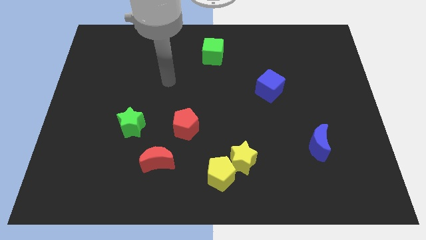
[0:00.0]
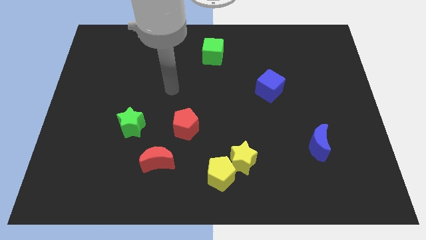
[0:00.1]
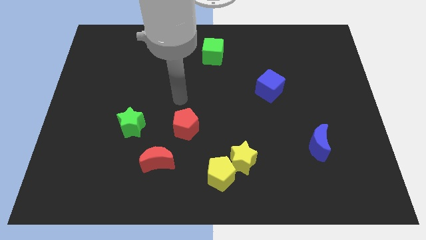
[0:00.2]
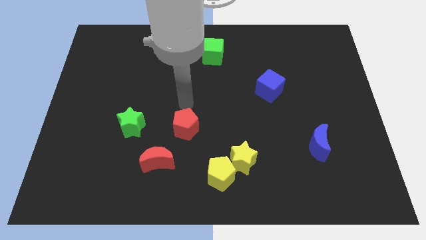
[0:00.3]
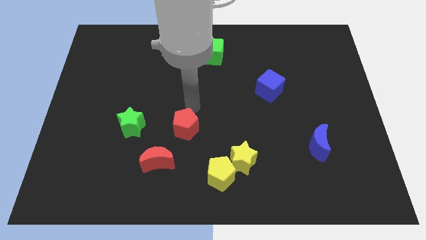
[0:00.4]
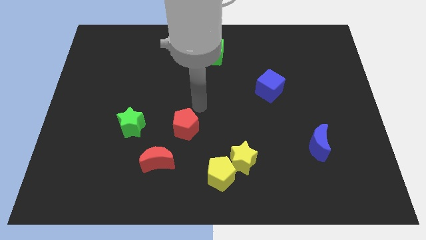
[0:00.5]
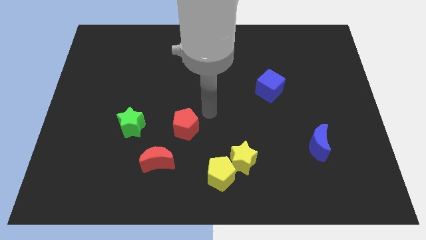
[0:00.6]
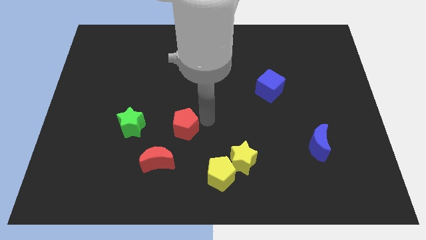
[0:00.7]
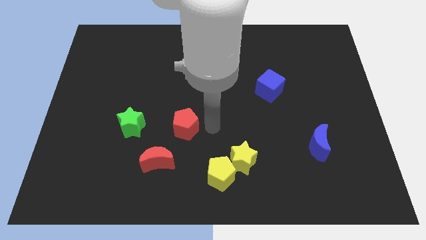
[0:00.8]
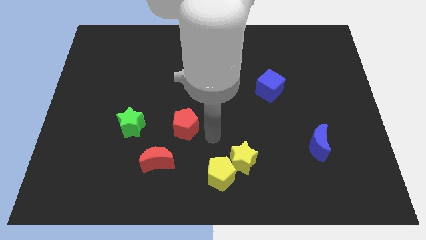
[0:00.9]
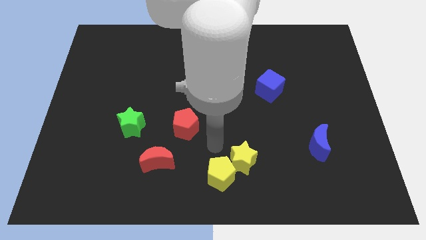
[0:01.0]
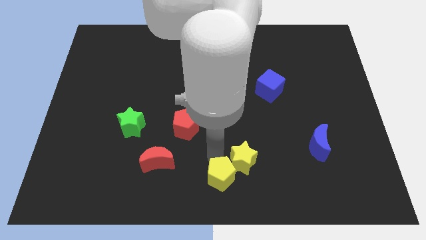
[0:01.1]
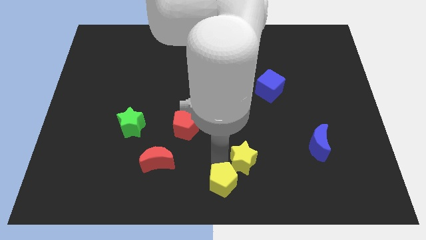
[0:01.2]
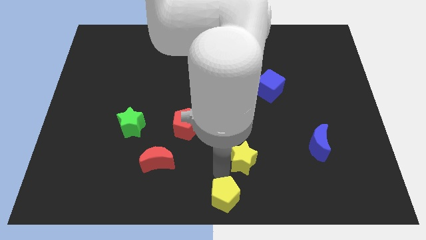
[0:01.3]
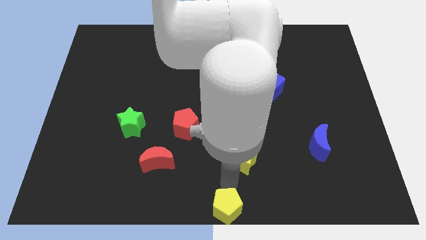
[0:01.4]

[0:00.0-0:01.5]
separate the yellow star from the yellow pentagon

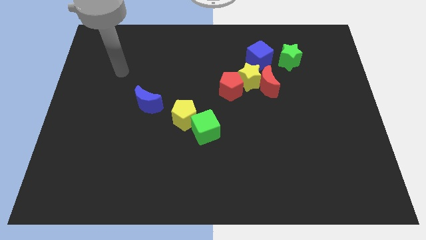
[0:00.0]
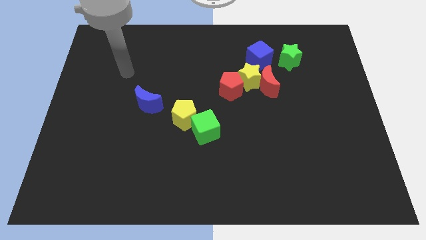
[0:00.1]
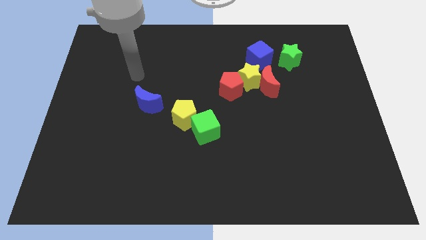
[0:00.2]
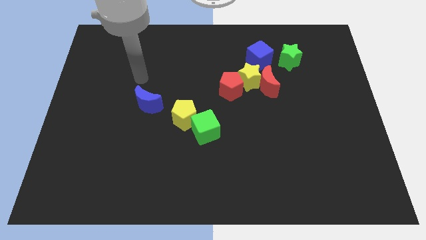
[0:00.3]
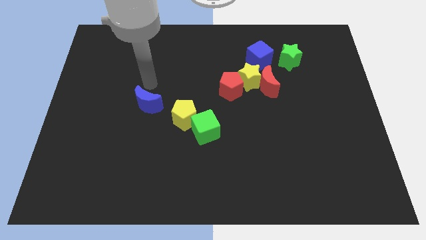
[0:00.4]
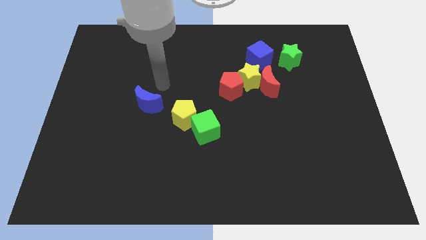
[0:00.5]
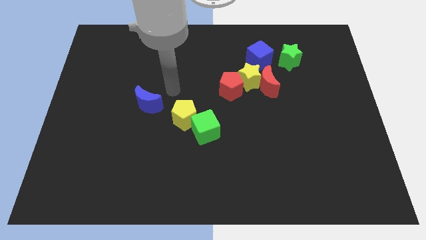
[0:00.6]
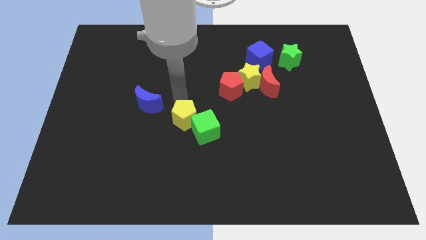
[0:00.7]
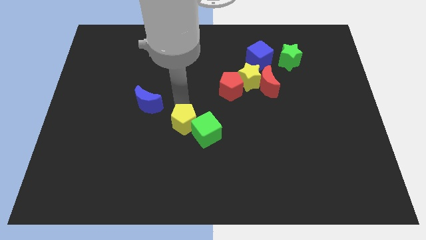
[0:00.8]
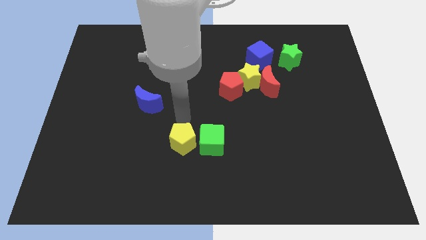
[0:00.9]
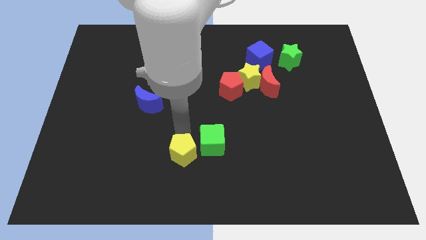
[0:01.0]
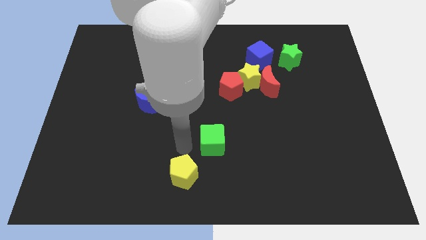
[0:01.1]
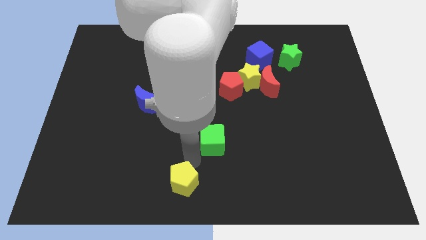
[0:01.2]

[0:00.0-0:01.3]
move the green cube away from the yellow pentagon

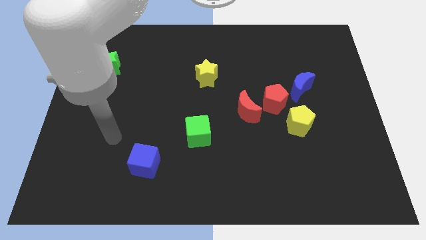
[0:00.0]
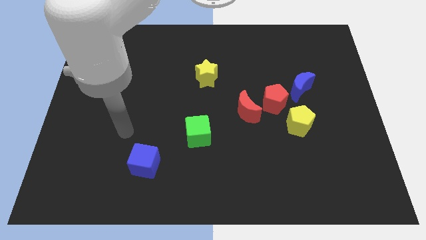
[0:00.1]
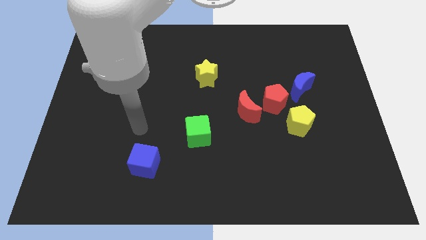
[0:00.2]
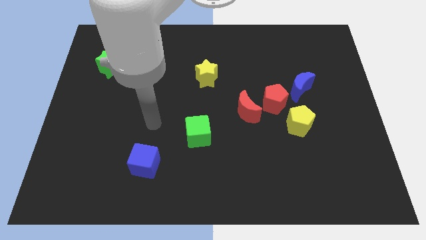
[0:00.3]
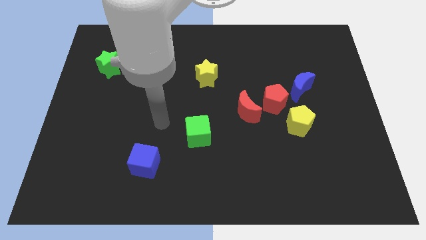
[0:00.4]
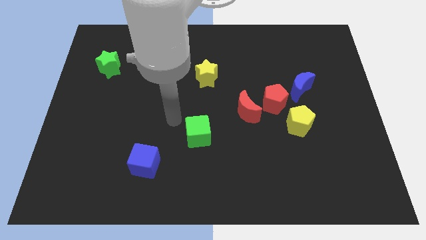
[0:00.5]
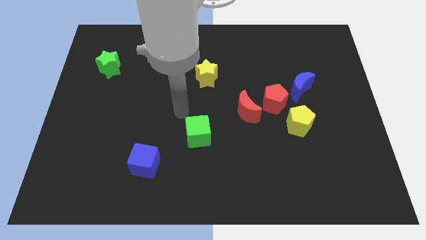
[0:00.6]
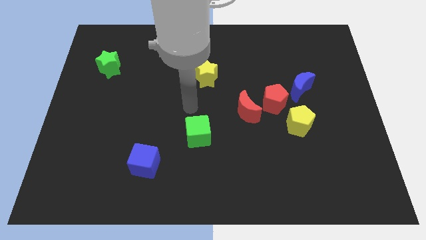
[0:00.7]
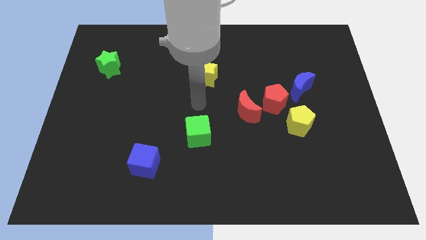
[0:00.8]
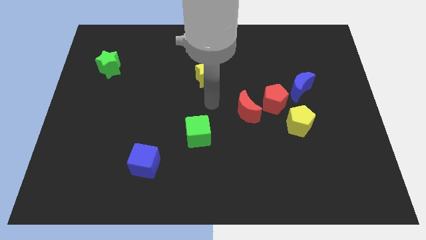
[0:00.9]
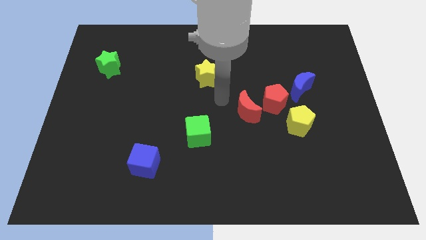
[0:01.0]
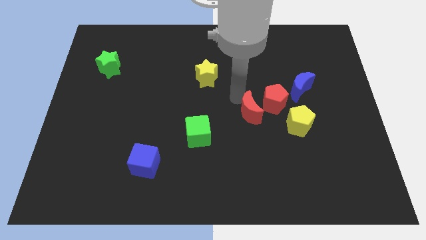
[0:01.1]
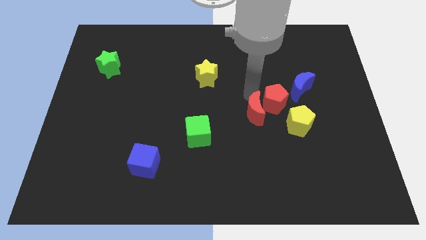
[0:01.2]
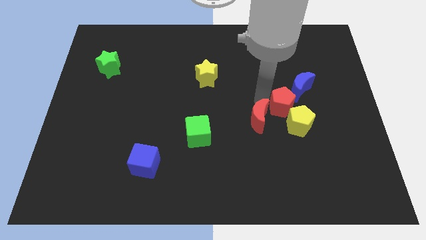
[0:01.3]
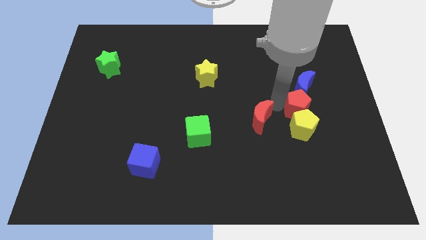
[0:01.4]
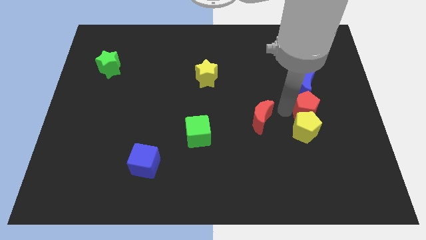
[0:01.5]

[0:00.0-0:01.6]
pull the red moon apart from the red pentagon

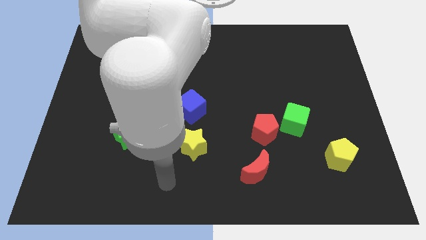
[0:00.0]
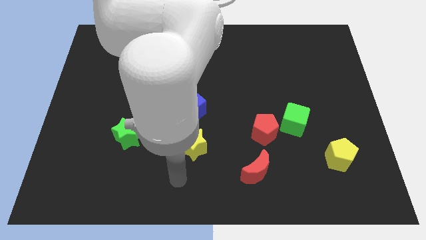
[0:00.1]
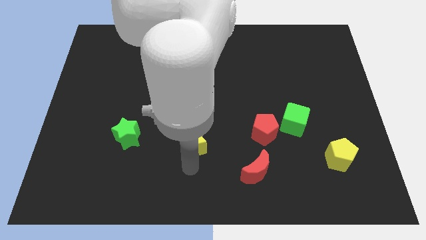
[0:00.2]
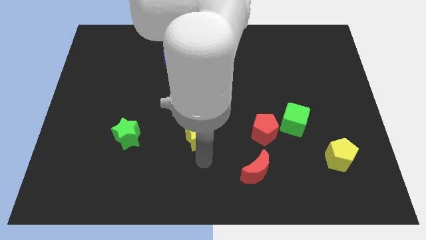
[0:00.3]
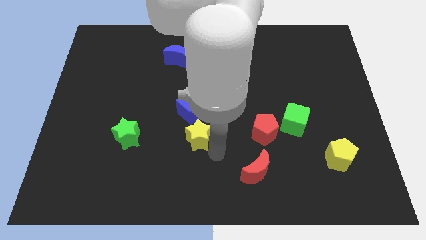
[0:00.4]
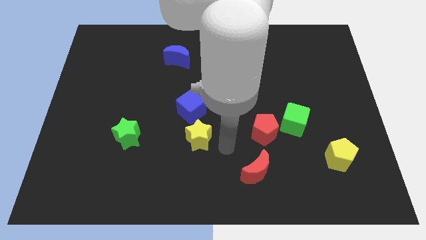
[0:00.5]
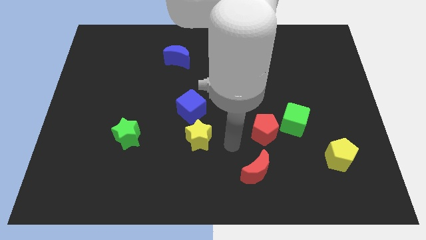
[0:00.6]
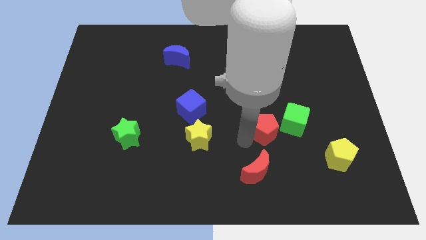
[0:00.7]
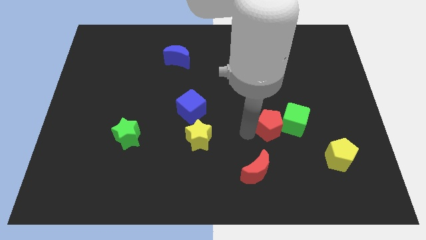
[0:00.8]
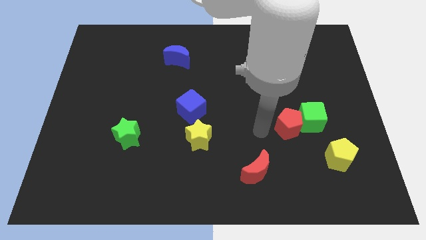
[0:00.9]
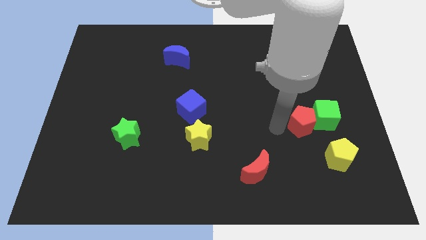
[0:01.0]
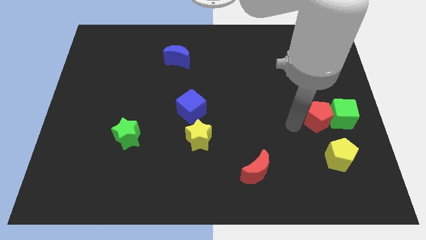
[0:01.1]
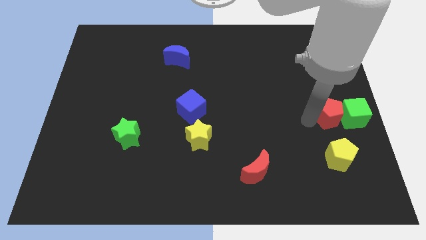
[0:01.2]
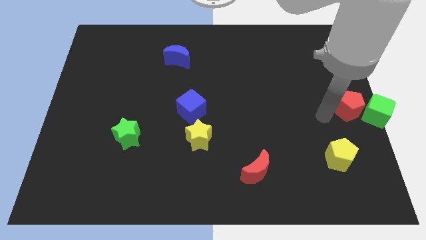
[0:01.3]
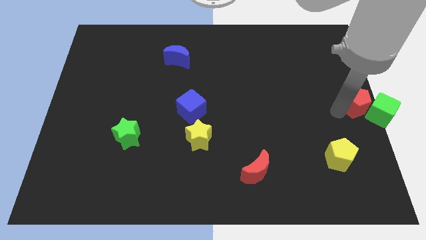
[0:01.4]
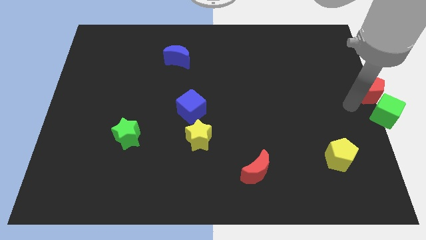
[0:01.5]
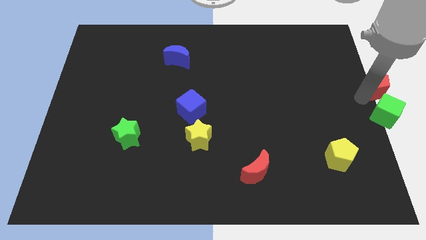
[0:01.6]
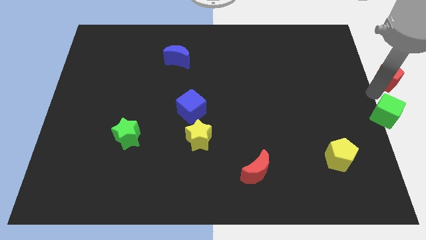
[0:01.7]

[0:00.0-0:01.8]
separate the green cube from the red pentagon

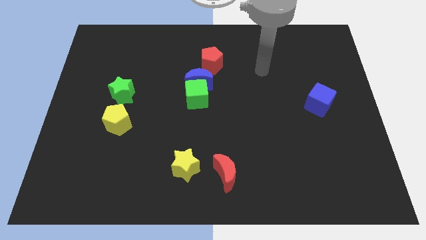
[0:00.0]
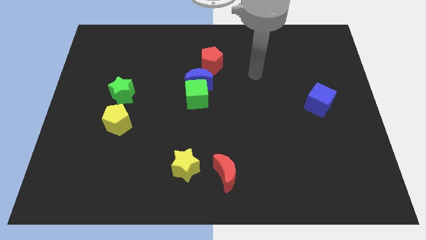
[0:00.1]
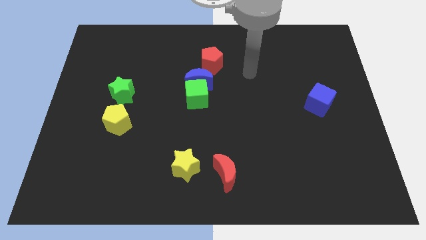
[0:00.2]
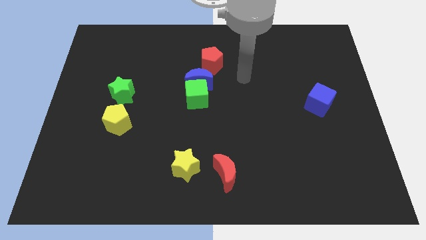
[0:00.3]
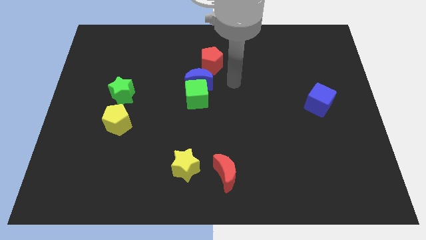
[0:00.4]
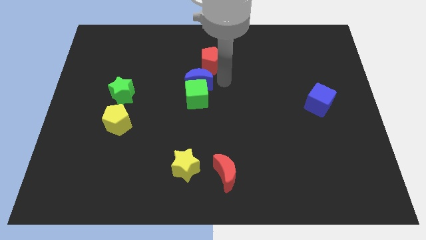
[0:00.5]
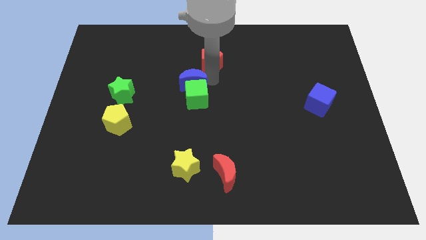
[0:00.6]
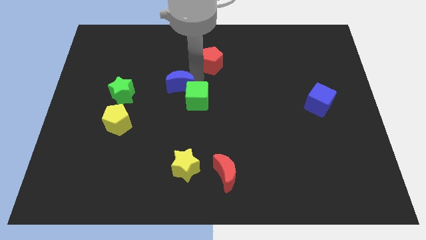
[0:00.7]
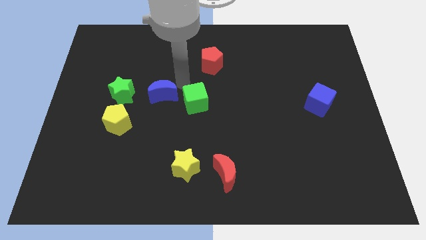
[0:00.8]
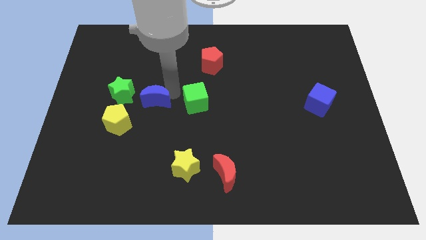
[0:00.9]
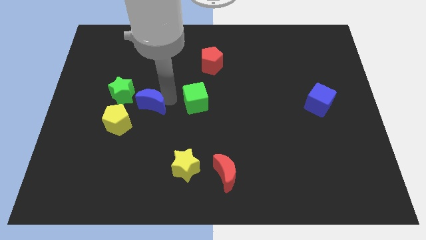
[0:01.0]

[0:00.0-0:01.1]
separate the green cube from the blue moon

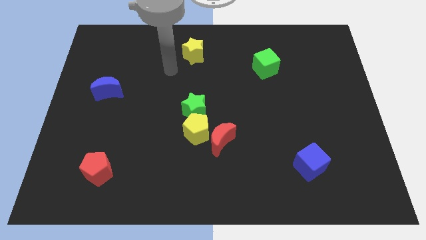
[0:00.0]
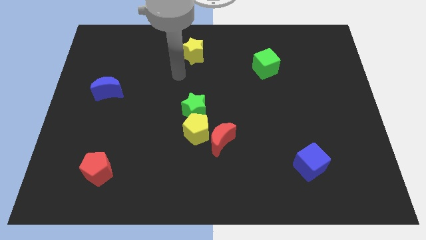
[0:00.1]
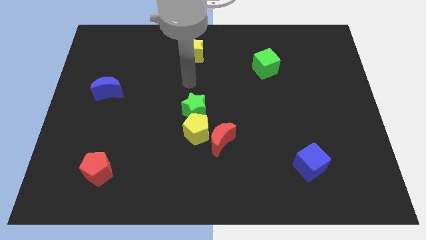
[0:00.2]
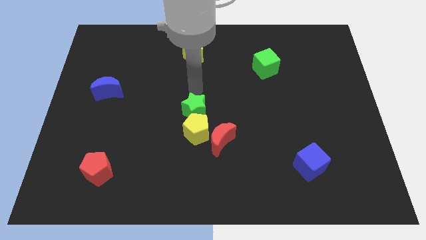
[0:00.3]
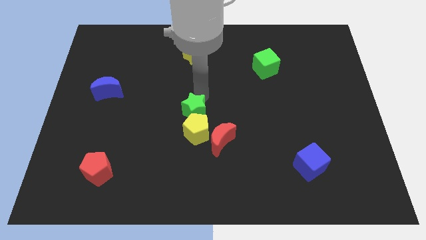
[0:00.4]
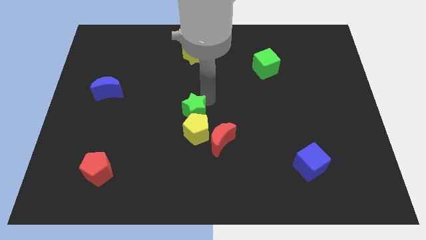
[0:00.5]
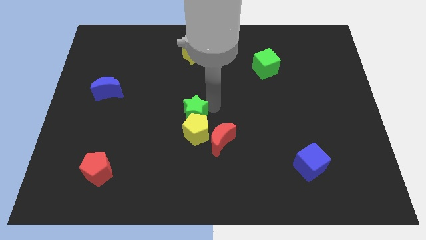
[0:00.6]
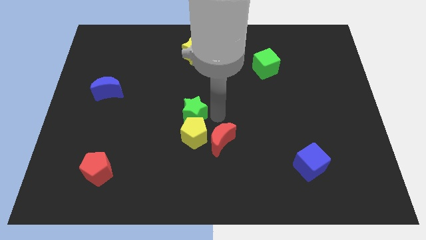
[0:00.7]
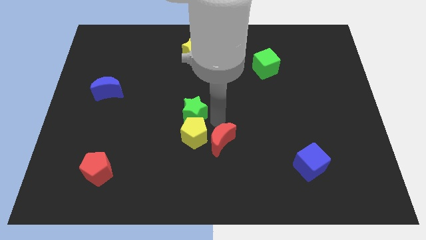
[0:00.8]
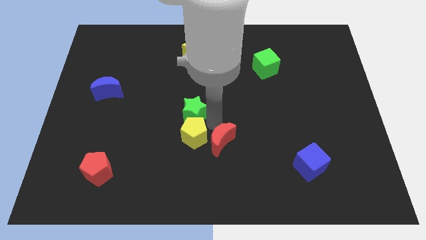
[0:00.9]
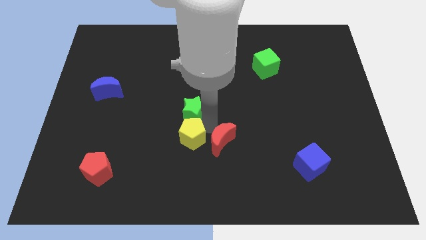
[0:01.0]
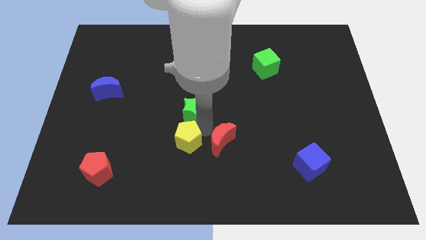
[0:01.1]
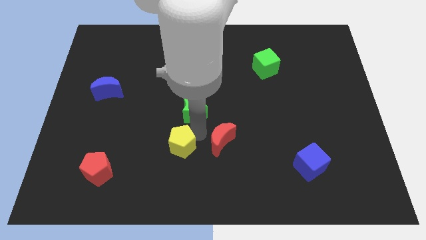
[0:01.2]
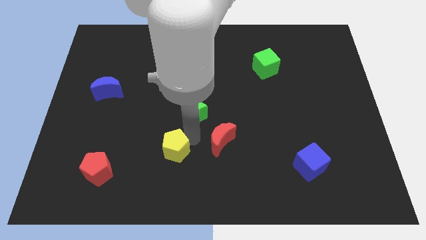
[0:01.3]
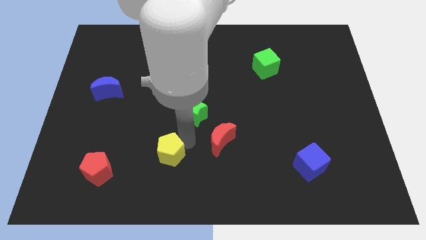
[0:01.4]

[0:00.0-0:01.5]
move the yellow pentagon away from the red moon and green star

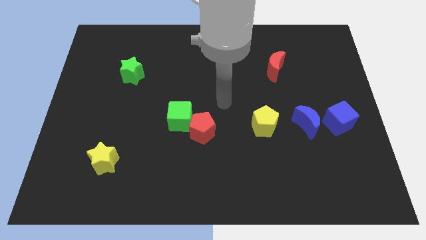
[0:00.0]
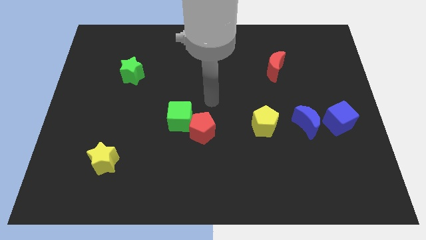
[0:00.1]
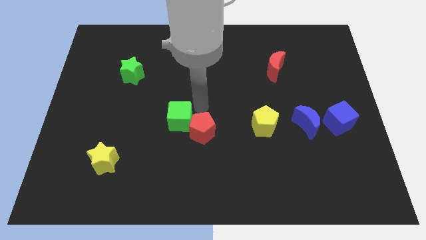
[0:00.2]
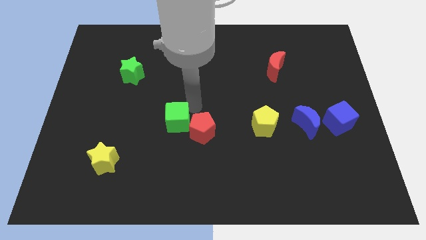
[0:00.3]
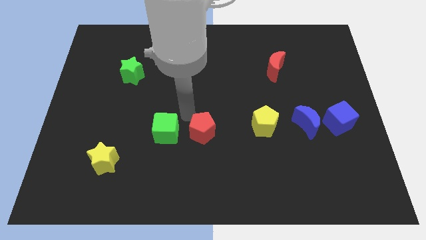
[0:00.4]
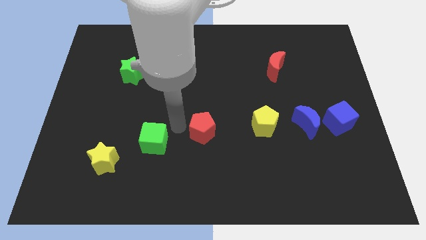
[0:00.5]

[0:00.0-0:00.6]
pull the red pentagon apart from the green cube
